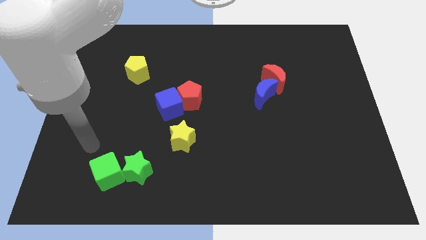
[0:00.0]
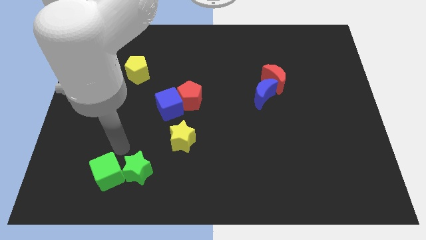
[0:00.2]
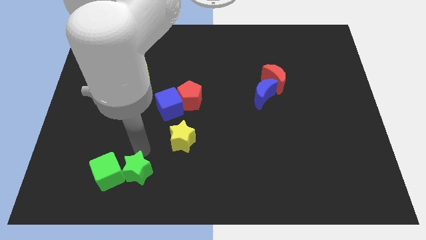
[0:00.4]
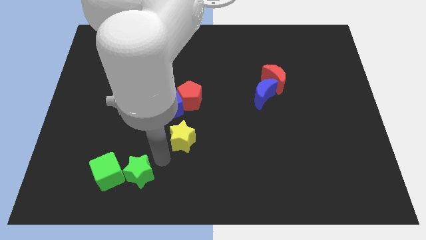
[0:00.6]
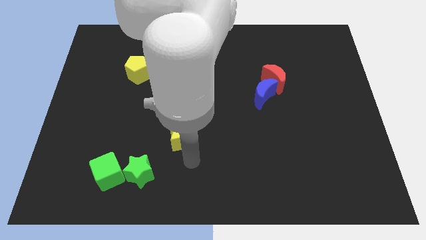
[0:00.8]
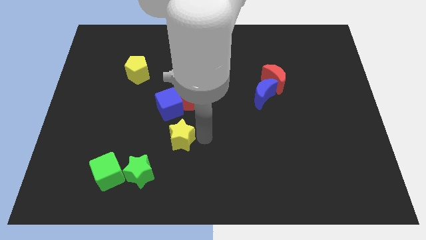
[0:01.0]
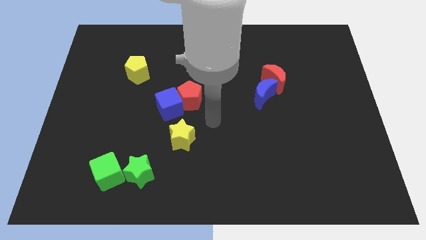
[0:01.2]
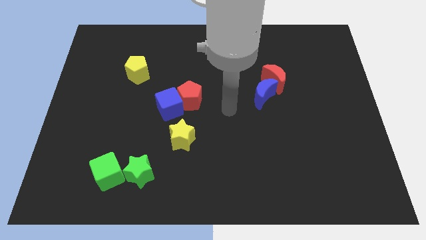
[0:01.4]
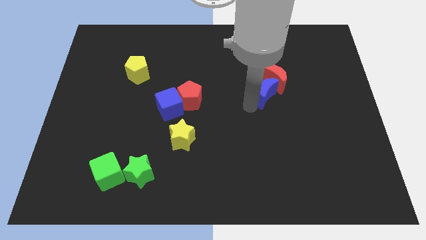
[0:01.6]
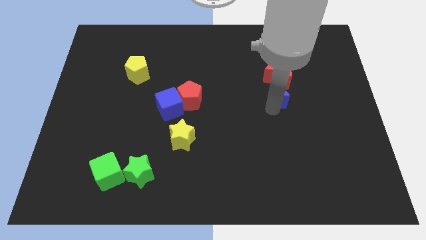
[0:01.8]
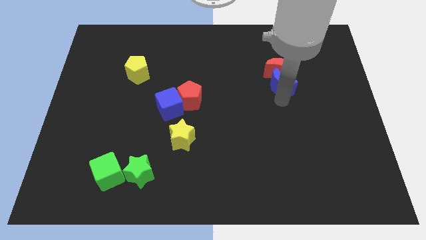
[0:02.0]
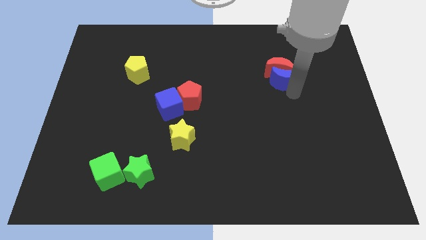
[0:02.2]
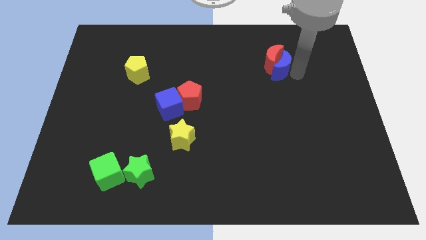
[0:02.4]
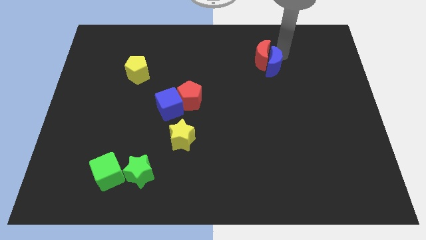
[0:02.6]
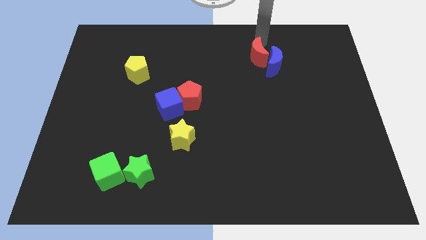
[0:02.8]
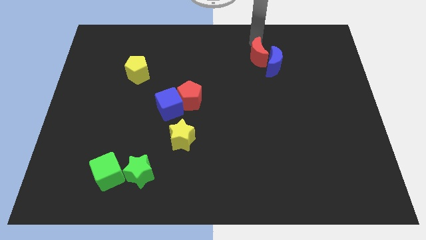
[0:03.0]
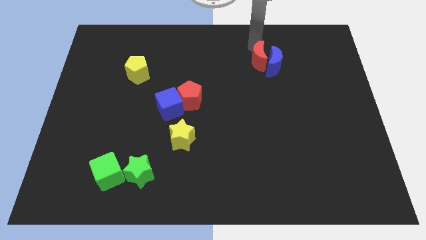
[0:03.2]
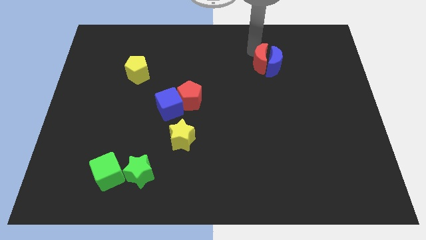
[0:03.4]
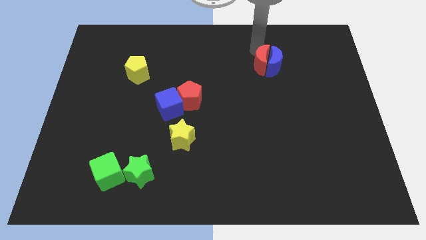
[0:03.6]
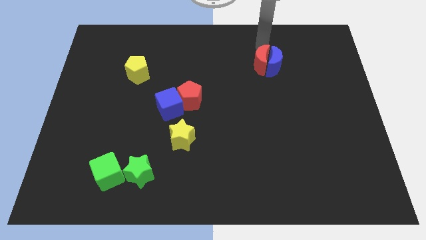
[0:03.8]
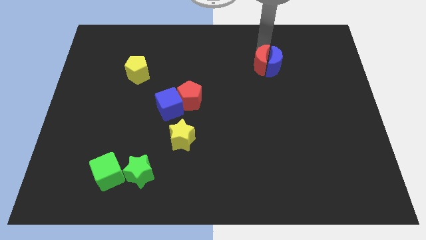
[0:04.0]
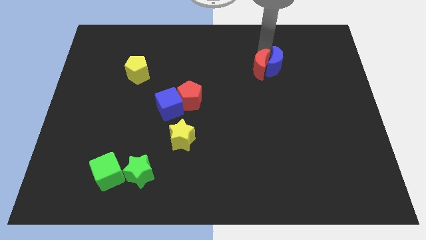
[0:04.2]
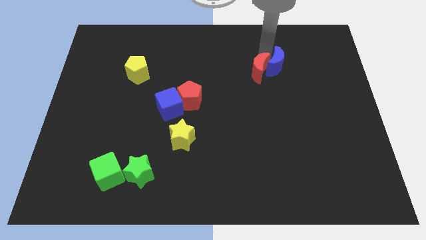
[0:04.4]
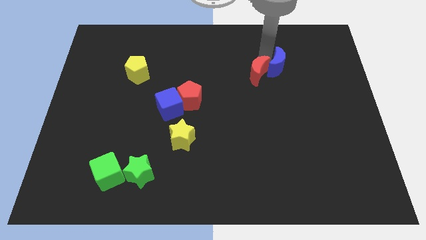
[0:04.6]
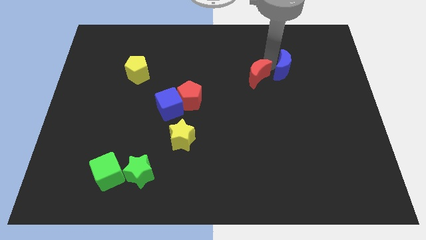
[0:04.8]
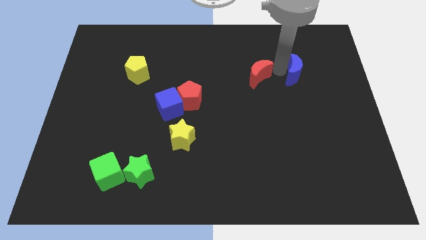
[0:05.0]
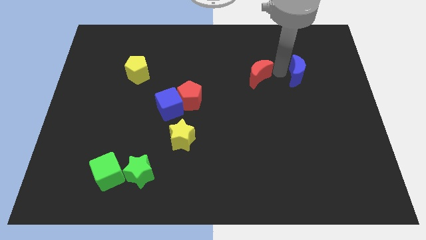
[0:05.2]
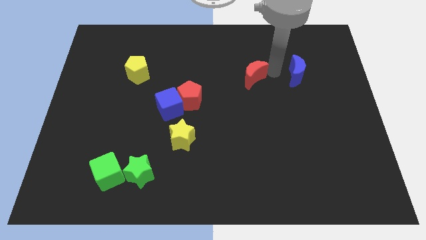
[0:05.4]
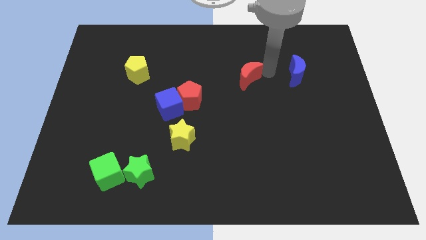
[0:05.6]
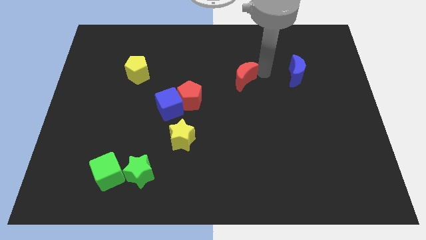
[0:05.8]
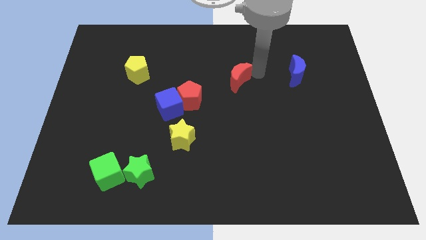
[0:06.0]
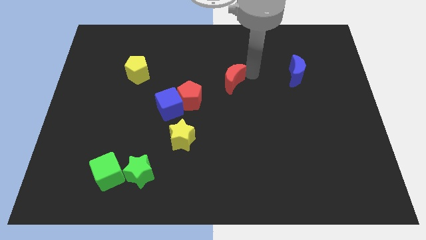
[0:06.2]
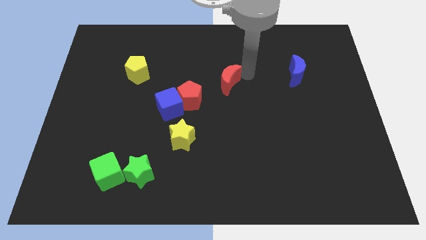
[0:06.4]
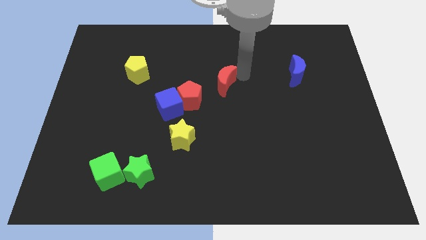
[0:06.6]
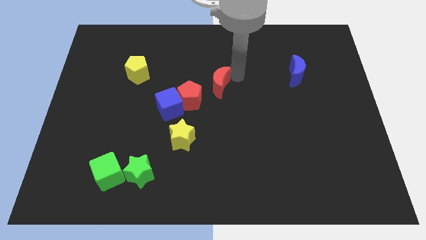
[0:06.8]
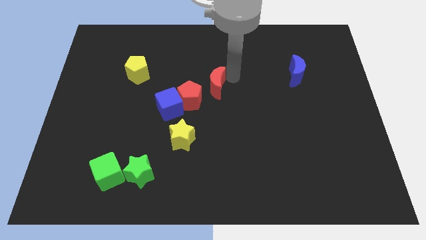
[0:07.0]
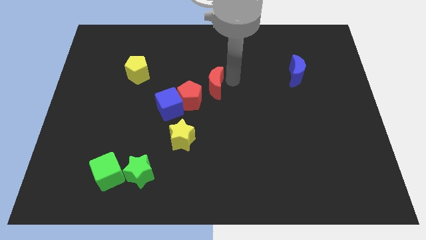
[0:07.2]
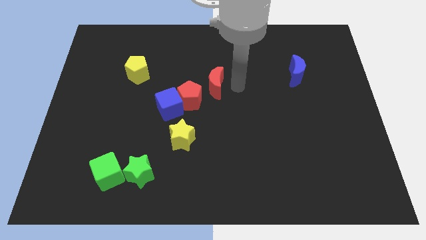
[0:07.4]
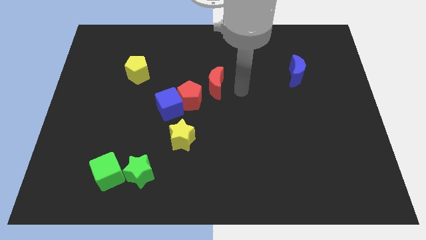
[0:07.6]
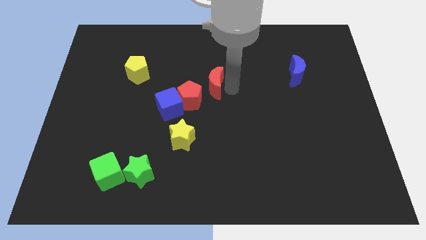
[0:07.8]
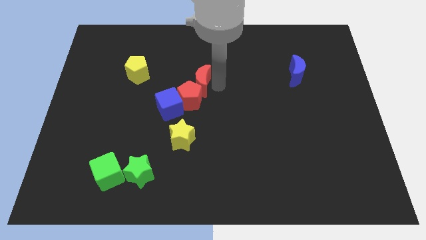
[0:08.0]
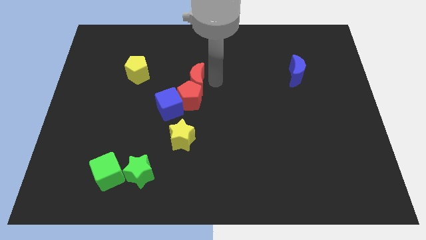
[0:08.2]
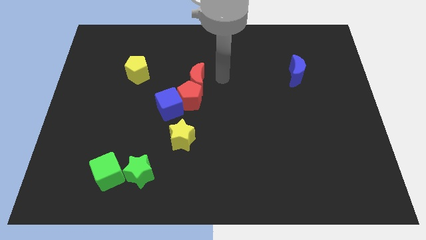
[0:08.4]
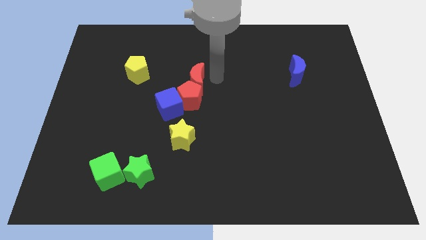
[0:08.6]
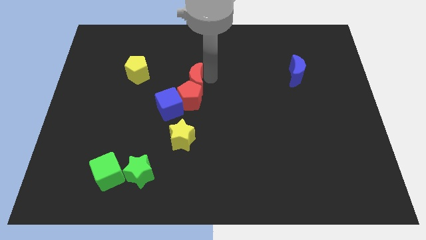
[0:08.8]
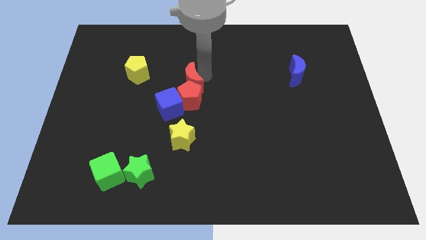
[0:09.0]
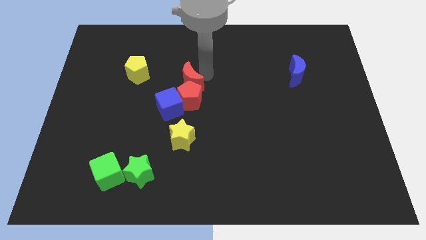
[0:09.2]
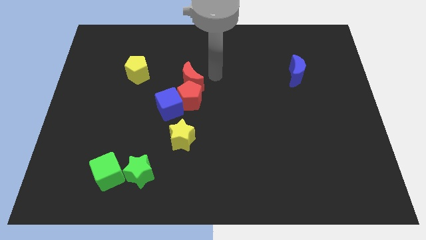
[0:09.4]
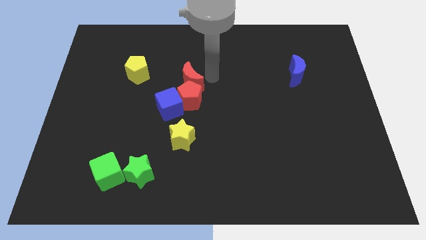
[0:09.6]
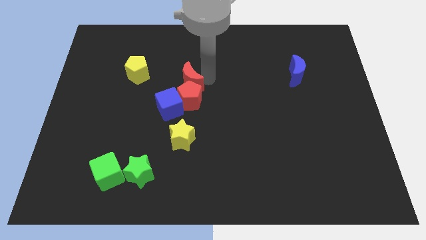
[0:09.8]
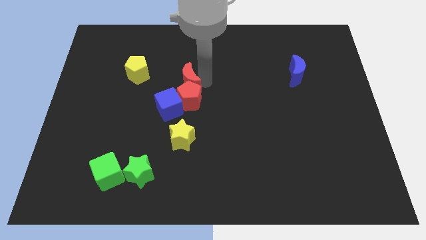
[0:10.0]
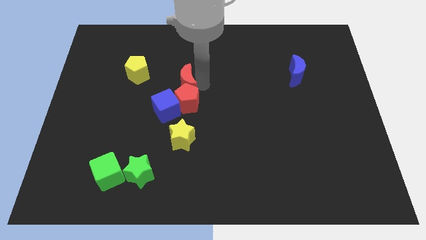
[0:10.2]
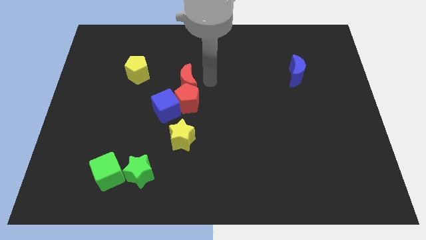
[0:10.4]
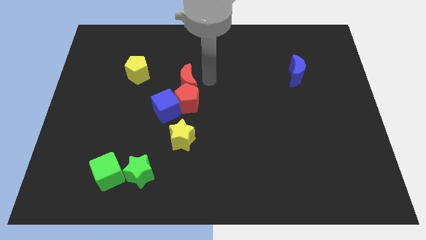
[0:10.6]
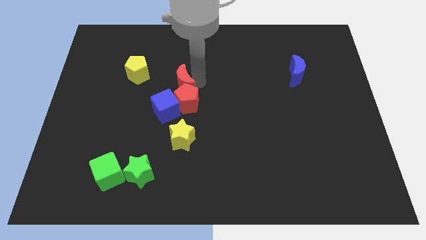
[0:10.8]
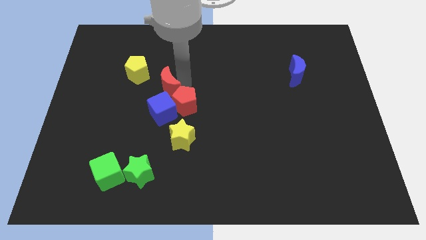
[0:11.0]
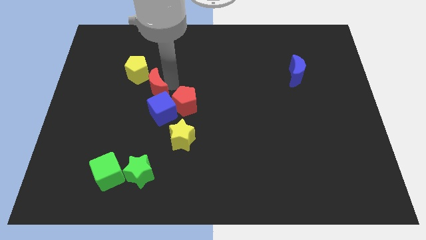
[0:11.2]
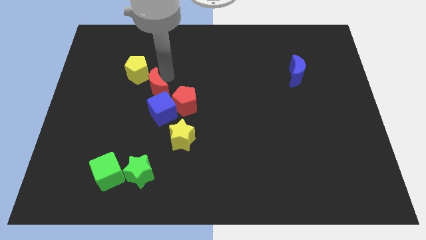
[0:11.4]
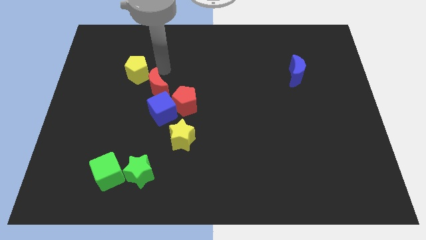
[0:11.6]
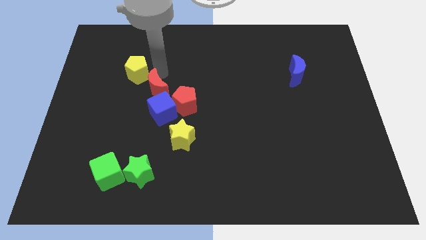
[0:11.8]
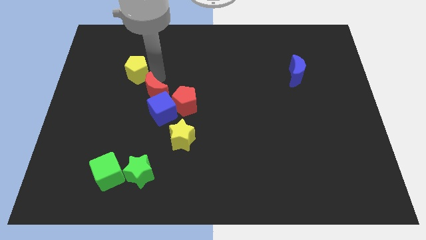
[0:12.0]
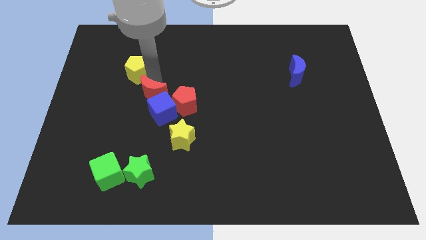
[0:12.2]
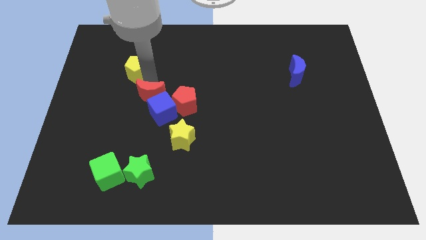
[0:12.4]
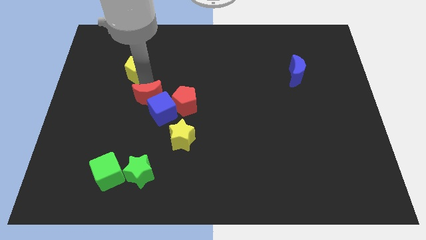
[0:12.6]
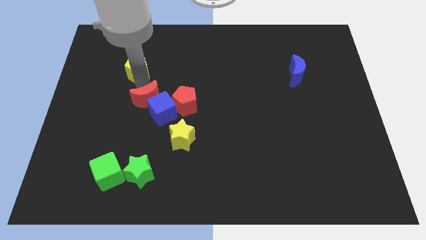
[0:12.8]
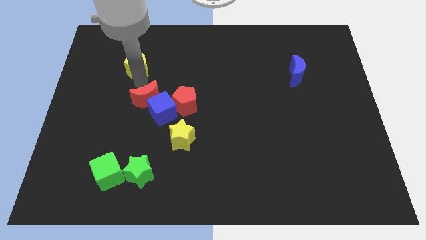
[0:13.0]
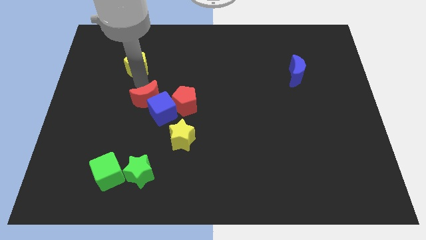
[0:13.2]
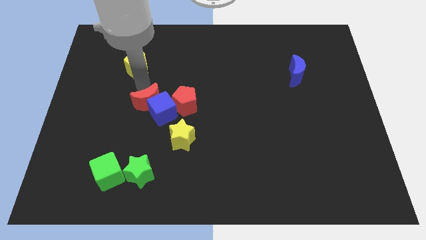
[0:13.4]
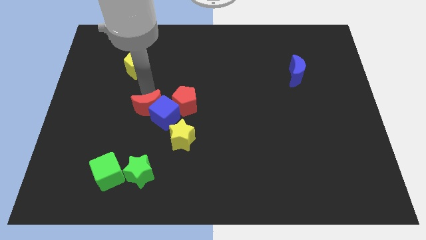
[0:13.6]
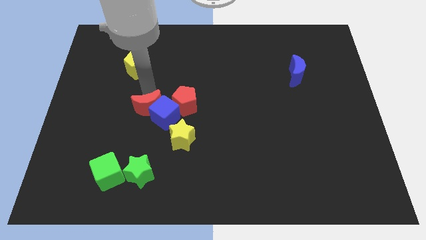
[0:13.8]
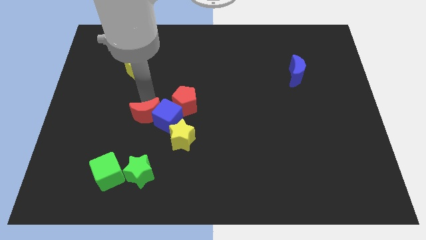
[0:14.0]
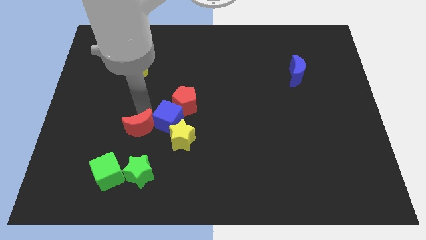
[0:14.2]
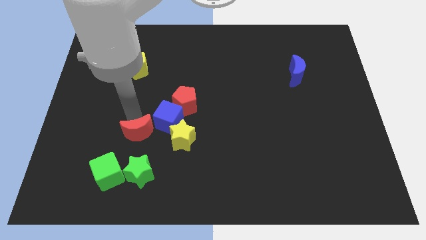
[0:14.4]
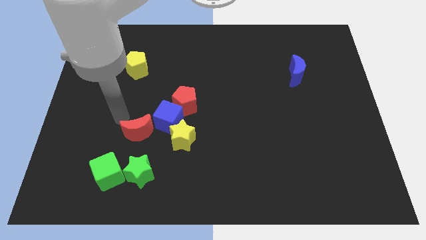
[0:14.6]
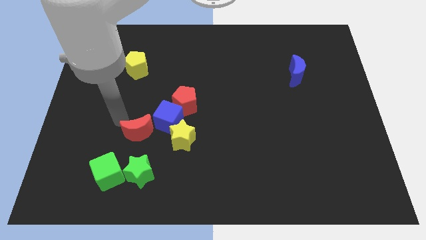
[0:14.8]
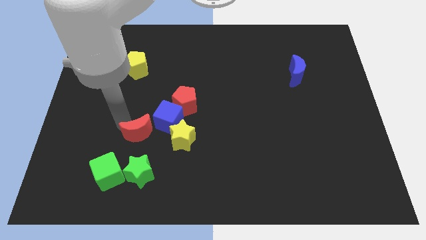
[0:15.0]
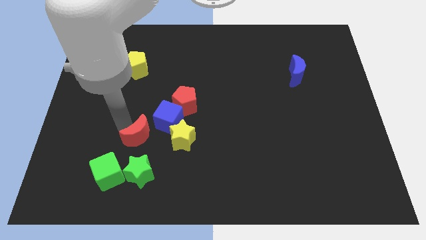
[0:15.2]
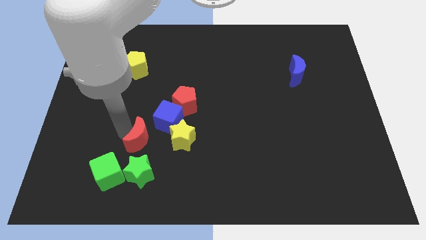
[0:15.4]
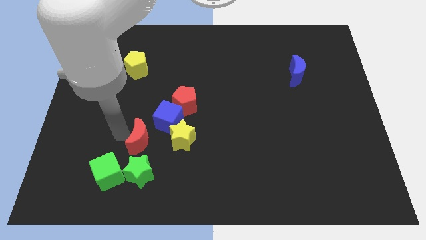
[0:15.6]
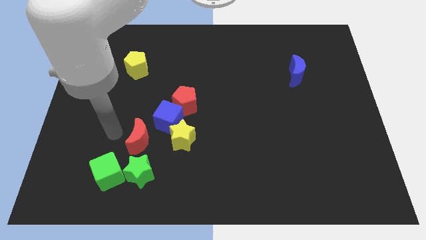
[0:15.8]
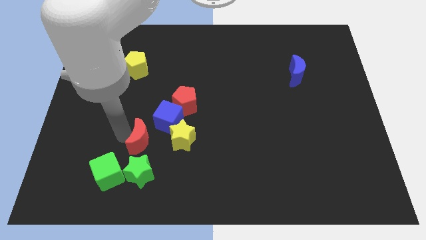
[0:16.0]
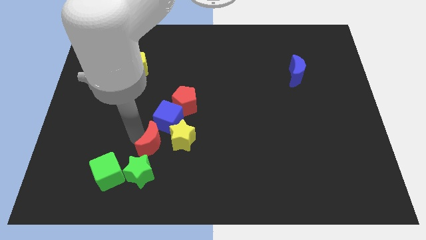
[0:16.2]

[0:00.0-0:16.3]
move the red moon diagonally down and to the left of the yellow star
